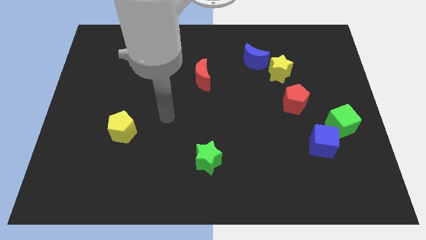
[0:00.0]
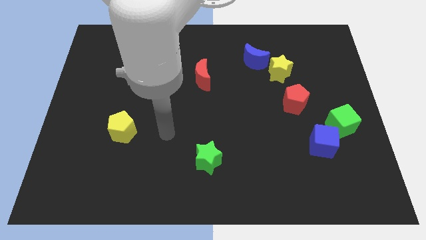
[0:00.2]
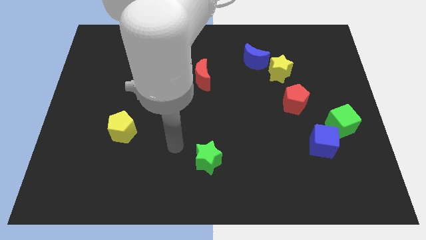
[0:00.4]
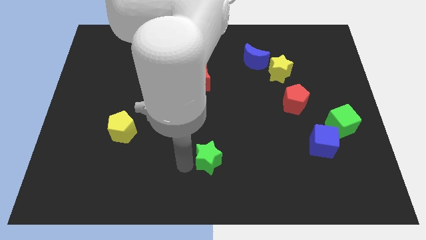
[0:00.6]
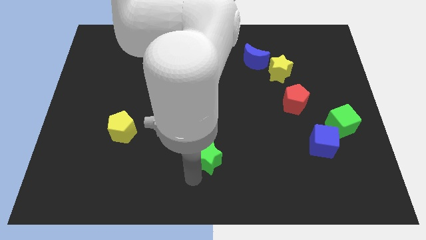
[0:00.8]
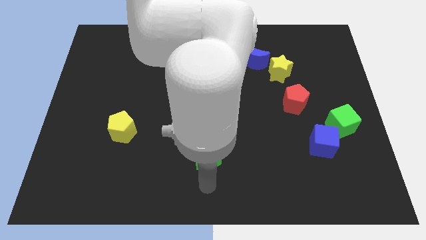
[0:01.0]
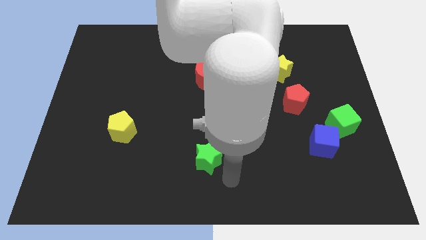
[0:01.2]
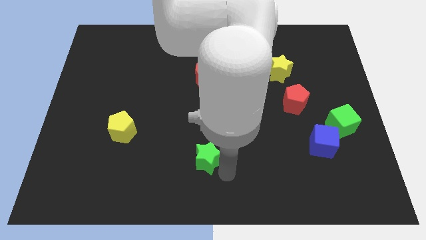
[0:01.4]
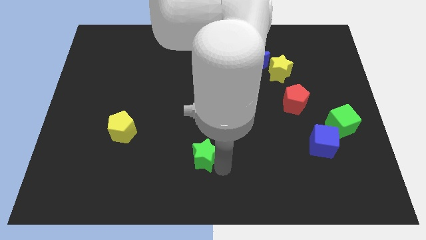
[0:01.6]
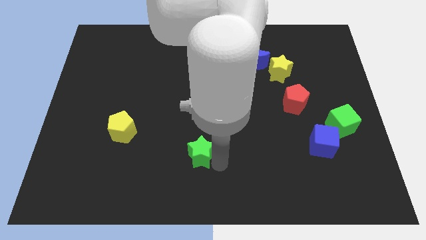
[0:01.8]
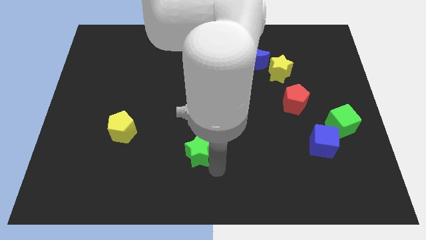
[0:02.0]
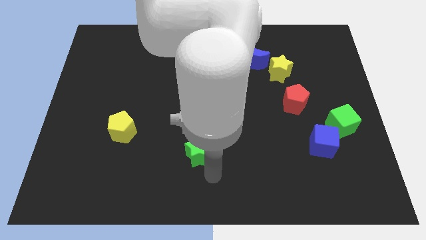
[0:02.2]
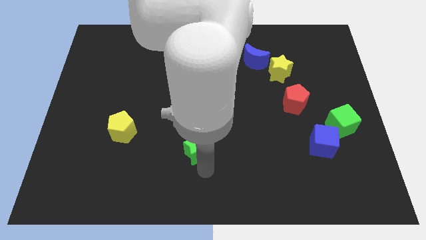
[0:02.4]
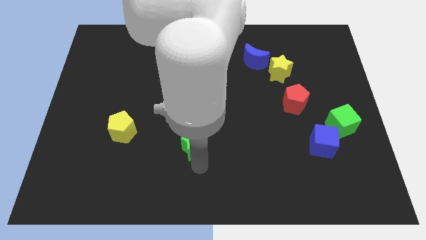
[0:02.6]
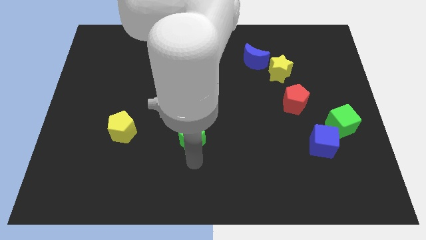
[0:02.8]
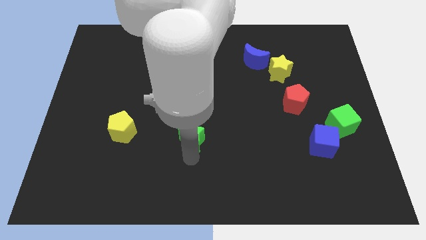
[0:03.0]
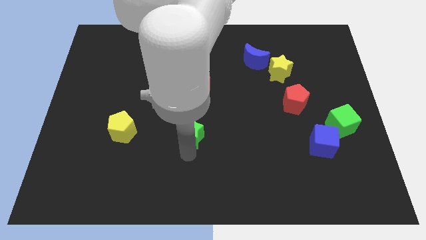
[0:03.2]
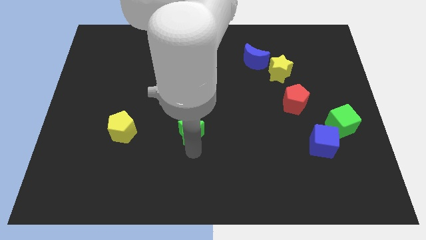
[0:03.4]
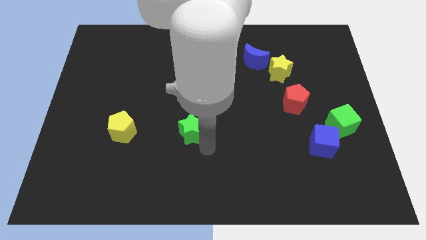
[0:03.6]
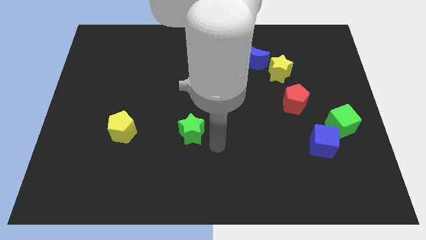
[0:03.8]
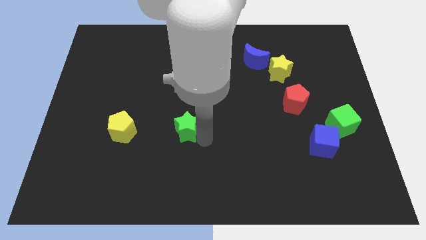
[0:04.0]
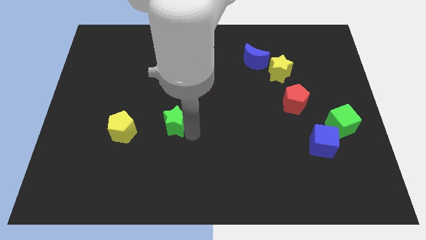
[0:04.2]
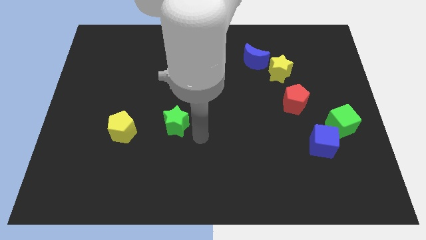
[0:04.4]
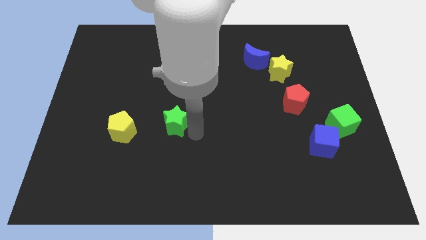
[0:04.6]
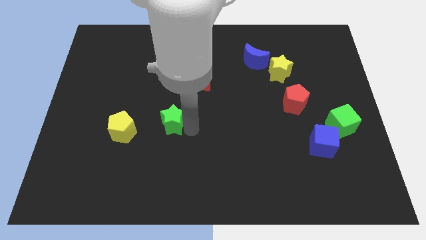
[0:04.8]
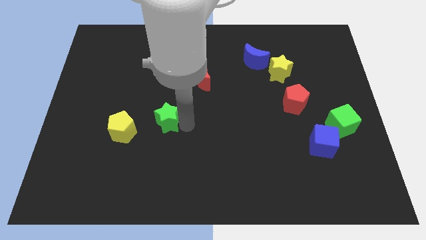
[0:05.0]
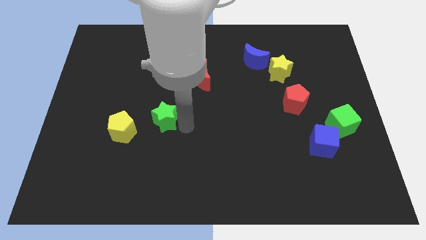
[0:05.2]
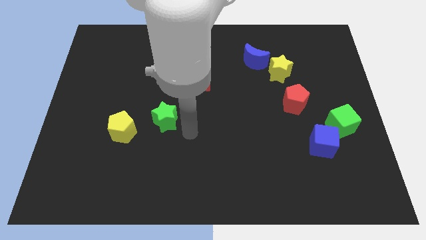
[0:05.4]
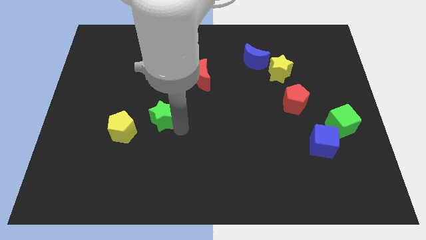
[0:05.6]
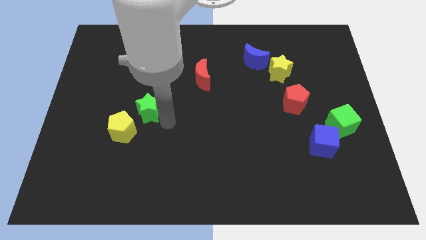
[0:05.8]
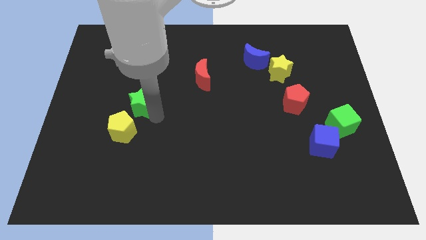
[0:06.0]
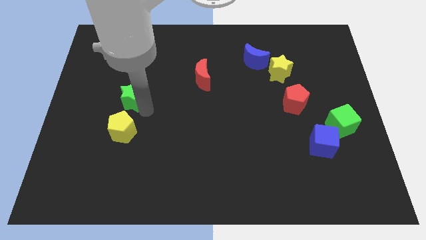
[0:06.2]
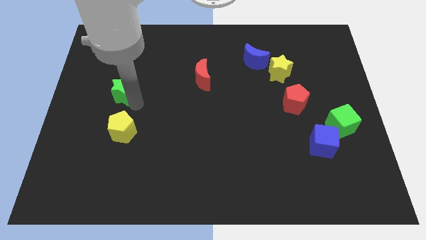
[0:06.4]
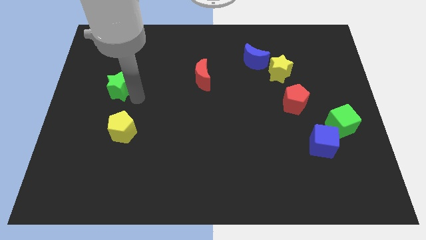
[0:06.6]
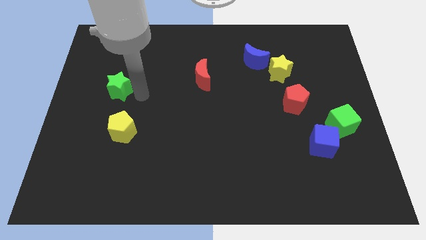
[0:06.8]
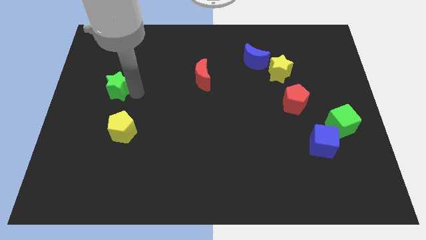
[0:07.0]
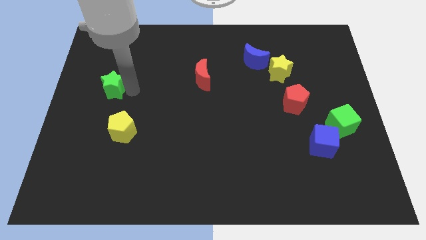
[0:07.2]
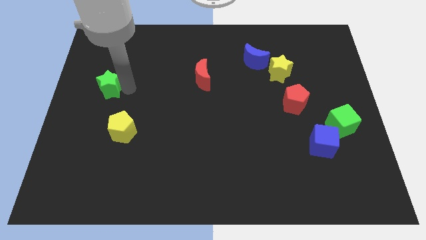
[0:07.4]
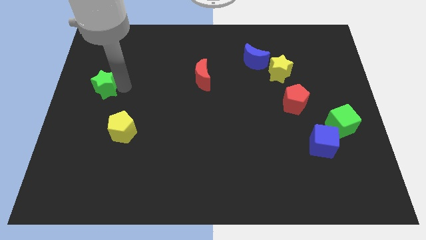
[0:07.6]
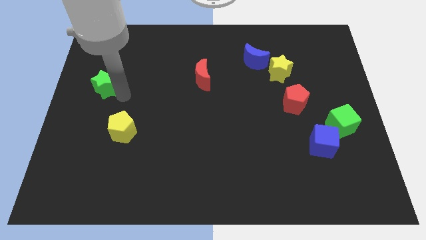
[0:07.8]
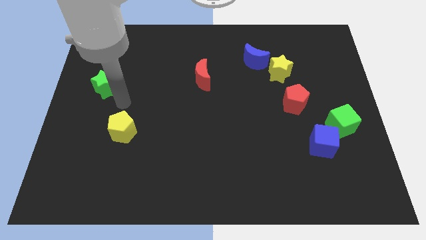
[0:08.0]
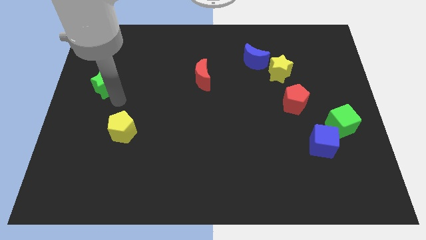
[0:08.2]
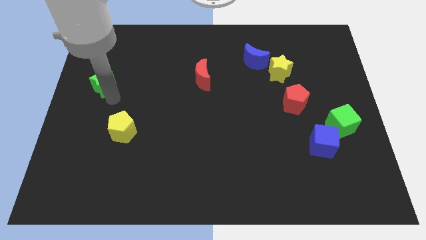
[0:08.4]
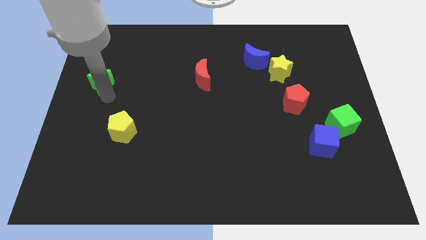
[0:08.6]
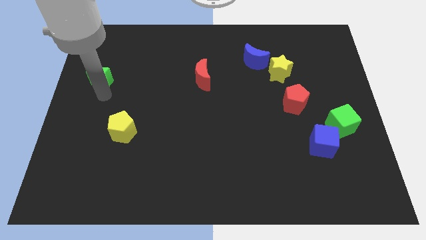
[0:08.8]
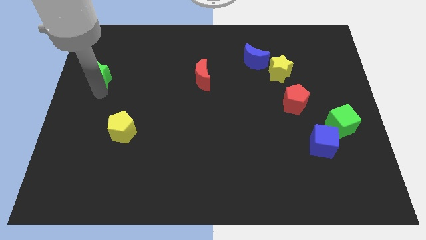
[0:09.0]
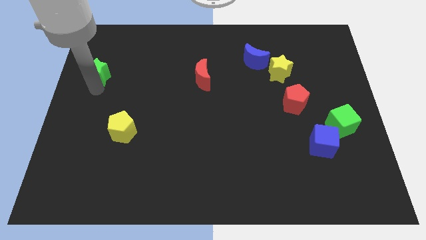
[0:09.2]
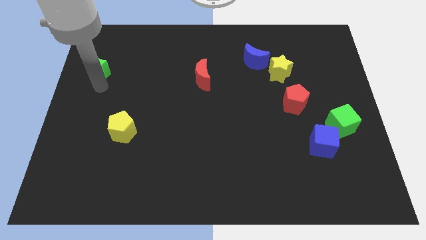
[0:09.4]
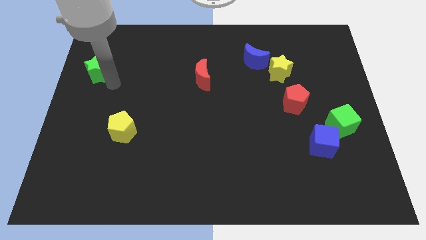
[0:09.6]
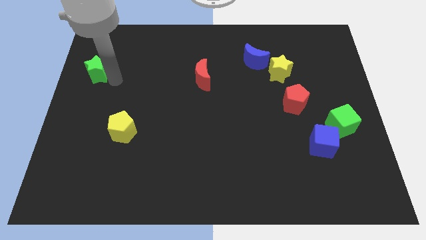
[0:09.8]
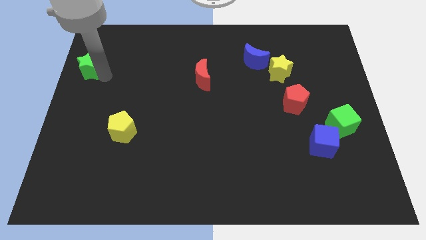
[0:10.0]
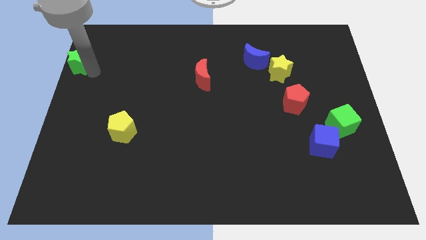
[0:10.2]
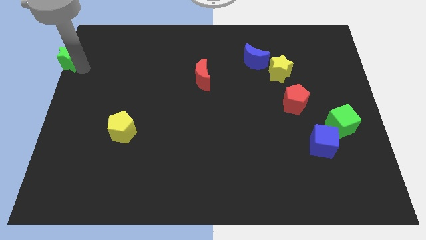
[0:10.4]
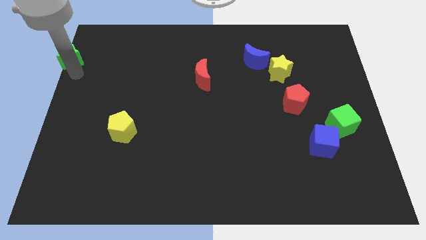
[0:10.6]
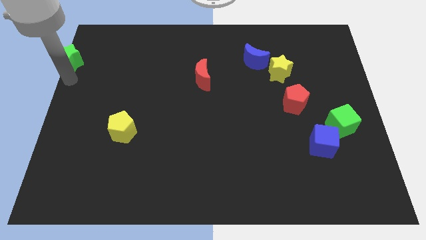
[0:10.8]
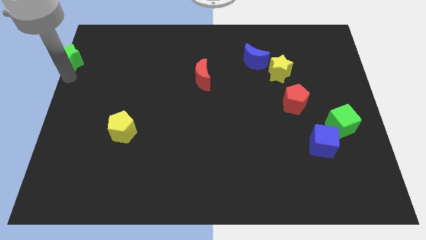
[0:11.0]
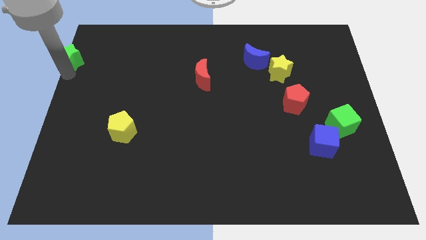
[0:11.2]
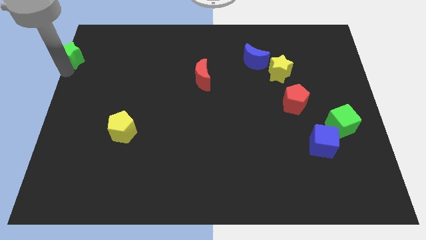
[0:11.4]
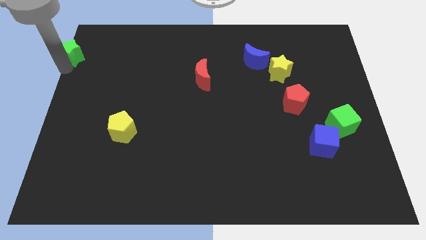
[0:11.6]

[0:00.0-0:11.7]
move the green star to the top left
